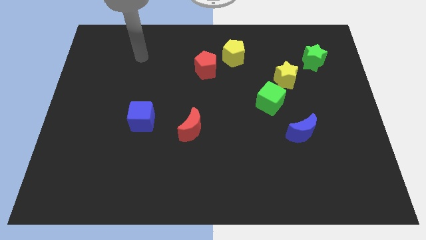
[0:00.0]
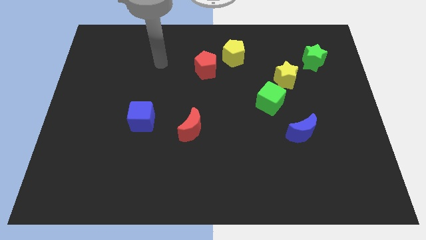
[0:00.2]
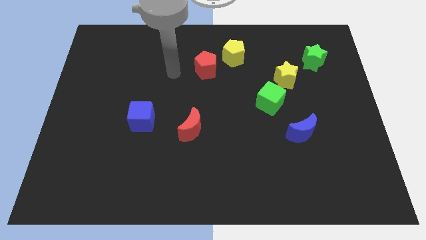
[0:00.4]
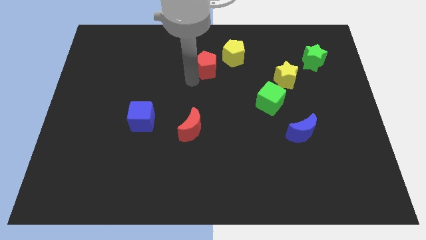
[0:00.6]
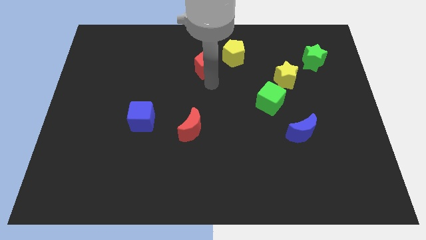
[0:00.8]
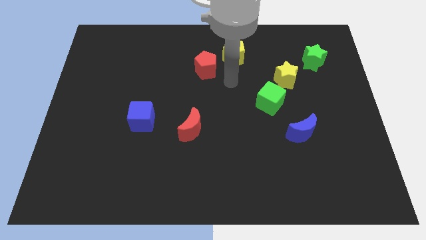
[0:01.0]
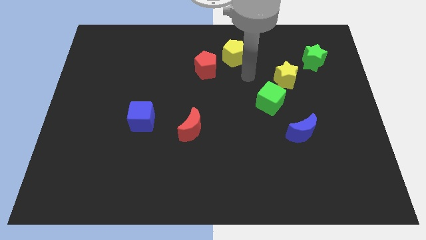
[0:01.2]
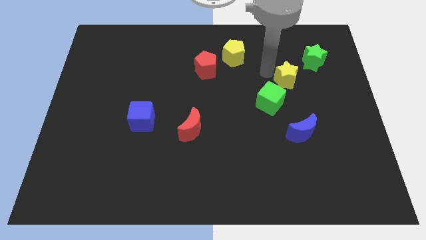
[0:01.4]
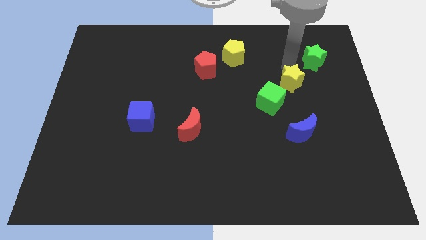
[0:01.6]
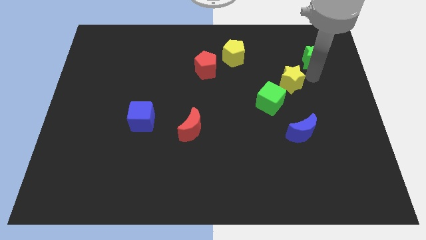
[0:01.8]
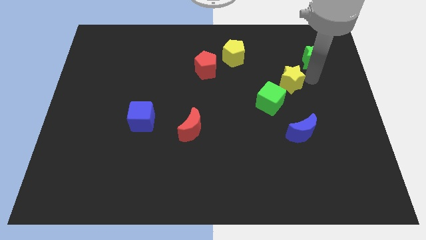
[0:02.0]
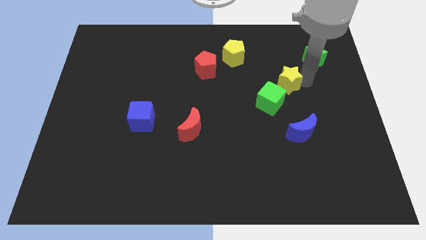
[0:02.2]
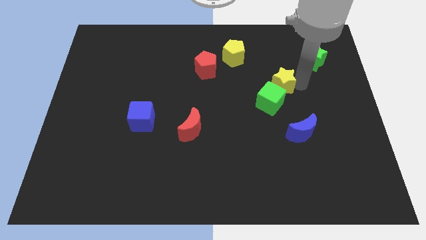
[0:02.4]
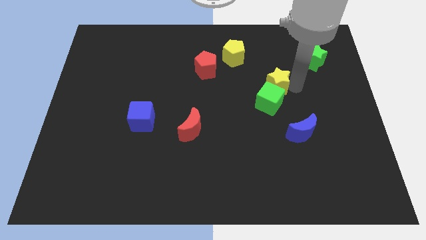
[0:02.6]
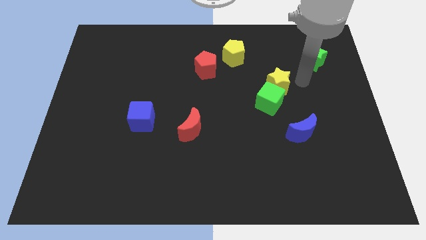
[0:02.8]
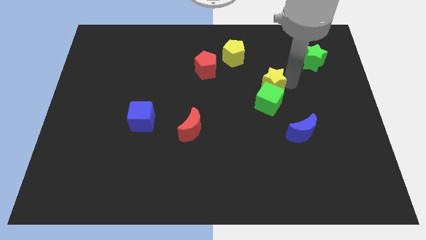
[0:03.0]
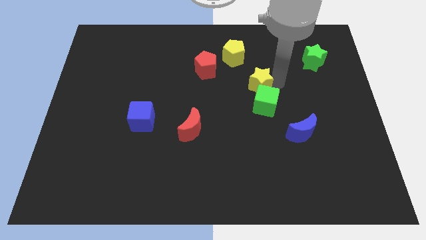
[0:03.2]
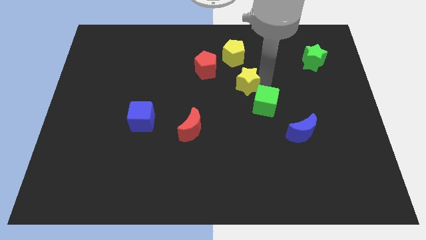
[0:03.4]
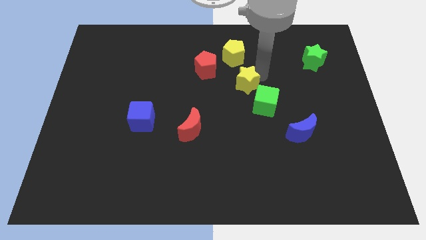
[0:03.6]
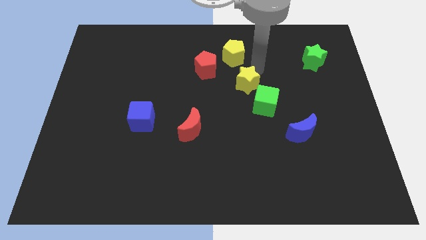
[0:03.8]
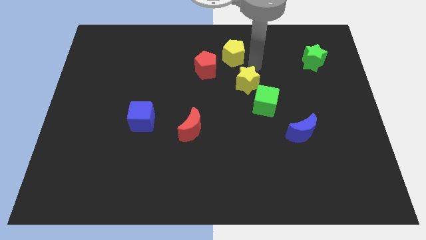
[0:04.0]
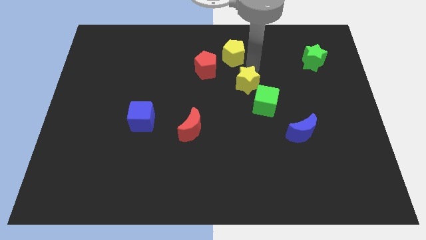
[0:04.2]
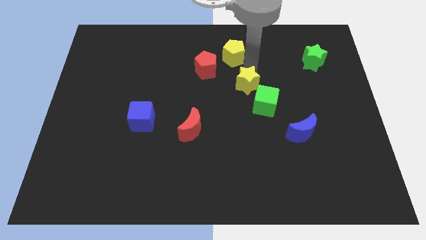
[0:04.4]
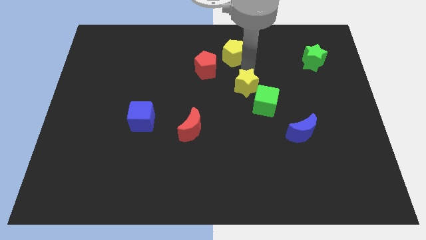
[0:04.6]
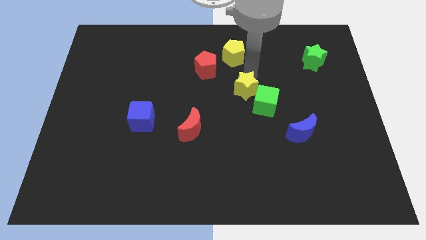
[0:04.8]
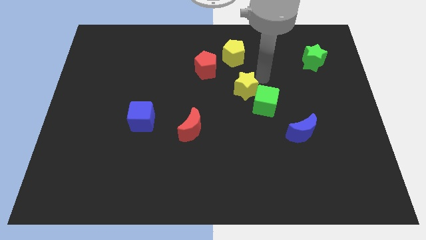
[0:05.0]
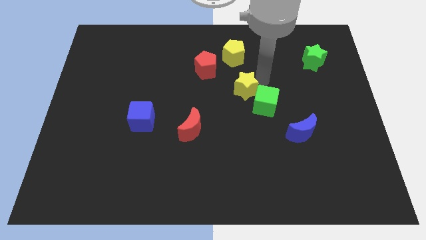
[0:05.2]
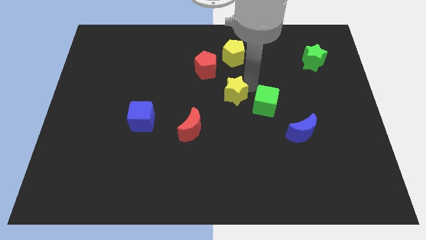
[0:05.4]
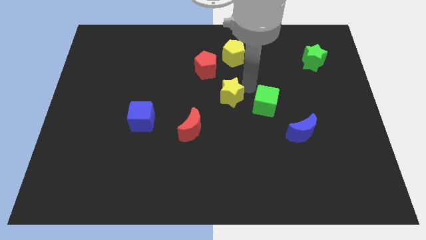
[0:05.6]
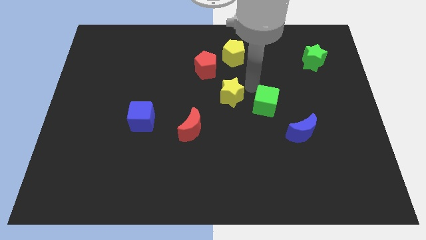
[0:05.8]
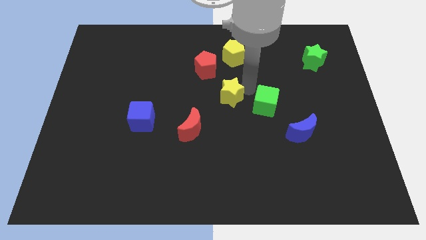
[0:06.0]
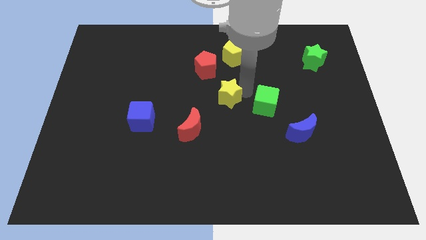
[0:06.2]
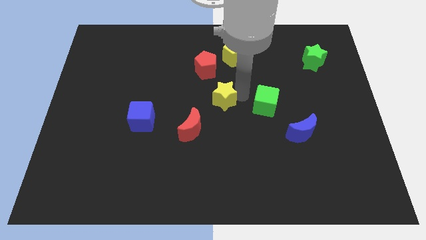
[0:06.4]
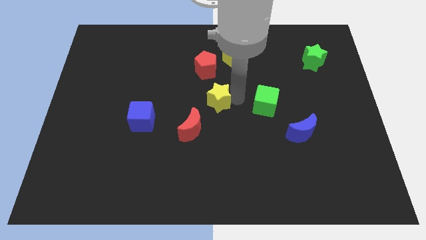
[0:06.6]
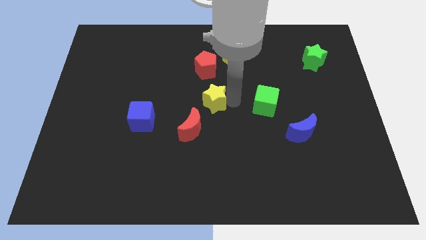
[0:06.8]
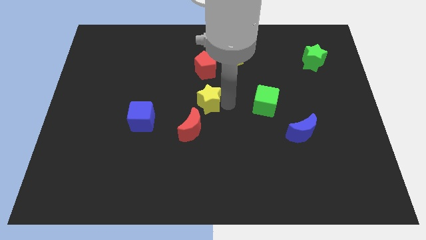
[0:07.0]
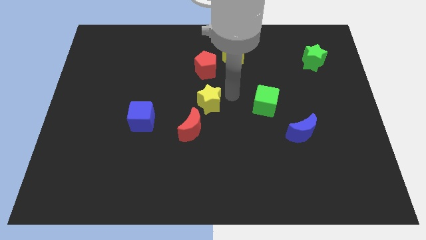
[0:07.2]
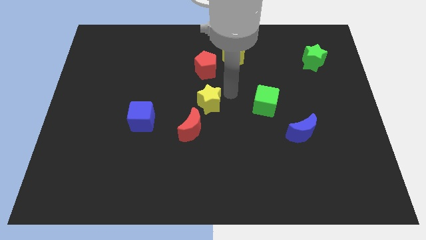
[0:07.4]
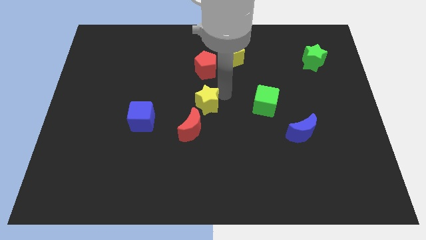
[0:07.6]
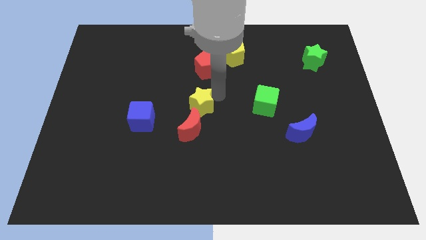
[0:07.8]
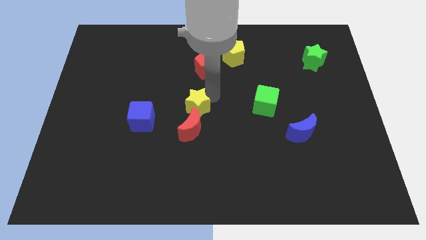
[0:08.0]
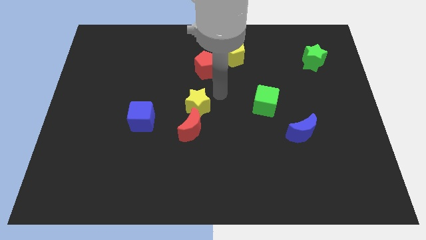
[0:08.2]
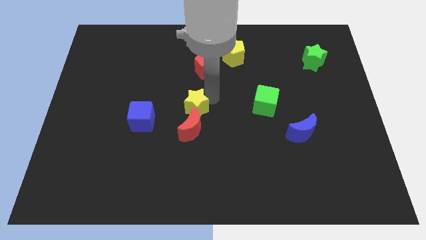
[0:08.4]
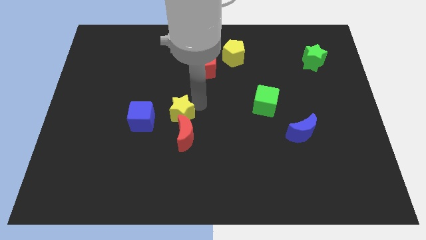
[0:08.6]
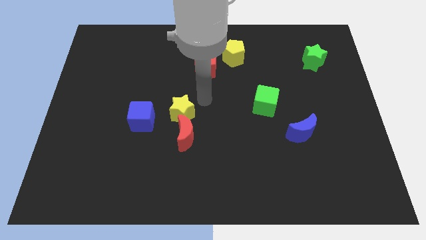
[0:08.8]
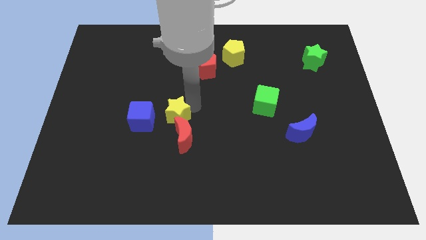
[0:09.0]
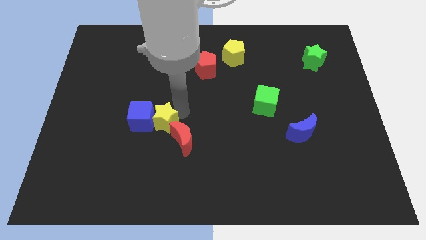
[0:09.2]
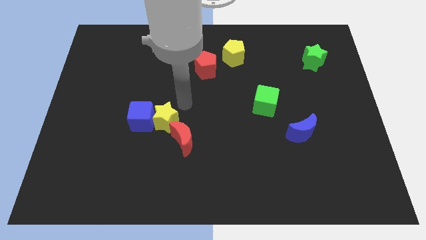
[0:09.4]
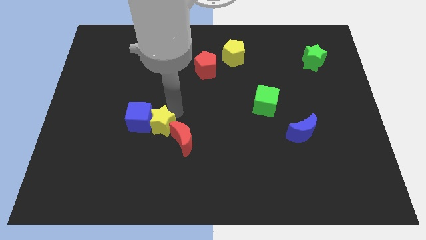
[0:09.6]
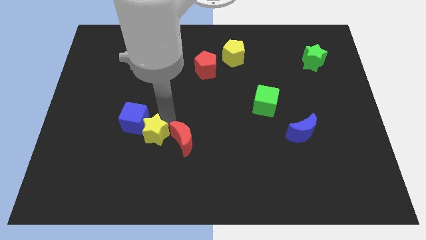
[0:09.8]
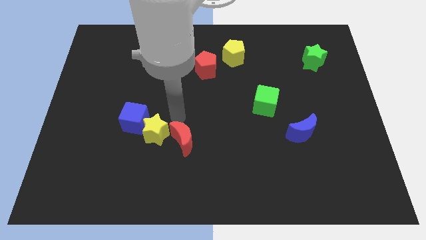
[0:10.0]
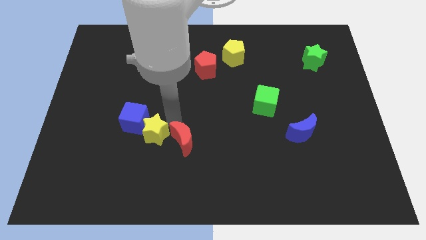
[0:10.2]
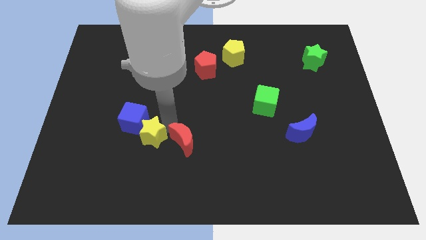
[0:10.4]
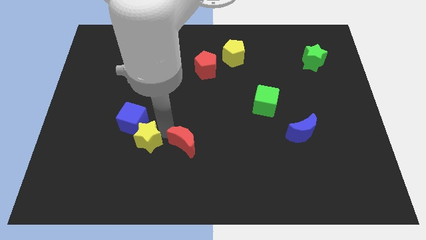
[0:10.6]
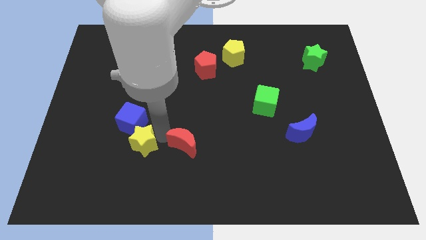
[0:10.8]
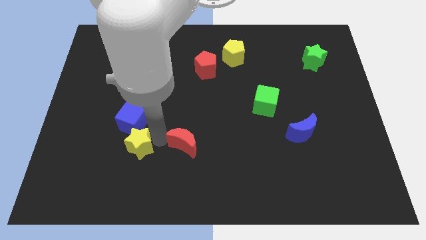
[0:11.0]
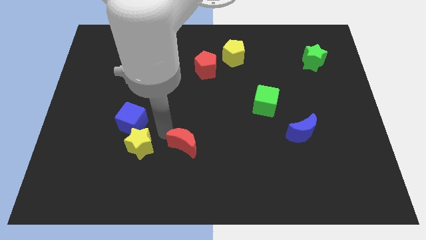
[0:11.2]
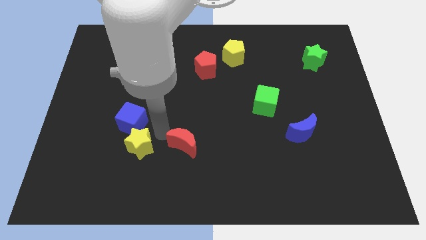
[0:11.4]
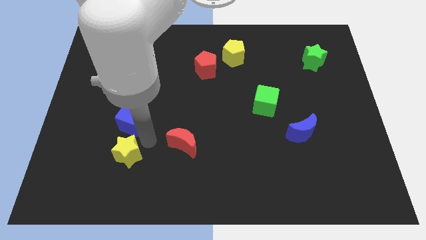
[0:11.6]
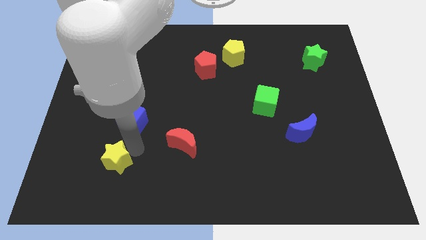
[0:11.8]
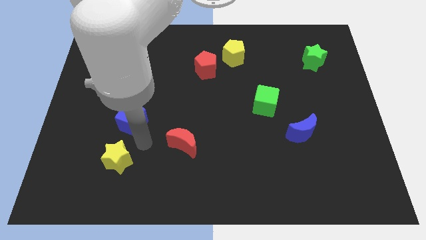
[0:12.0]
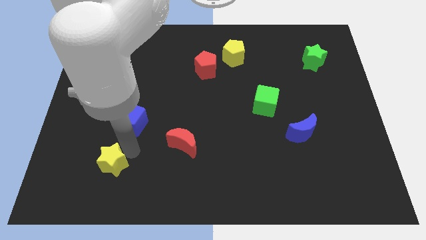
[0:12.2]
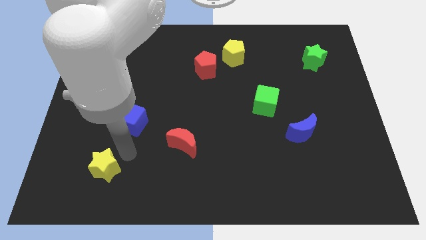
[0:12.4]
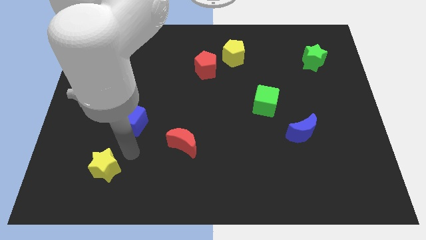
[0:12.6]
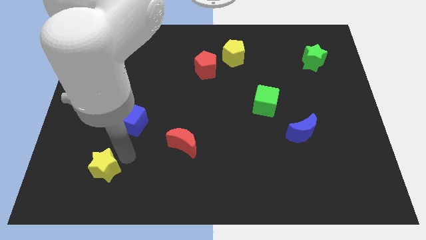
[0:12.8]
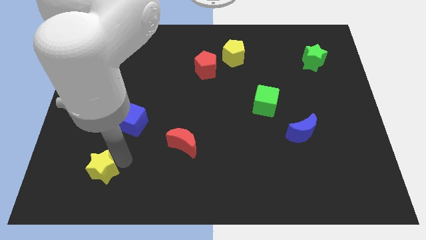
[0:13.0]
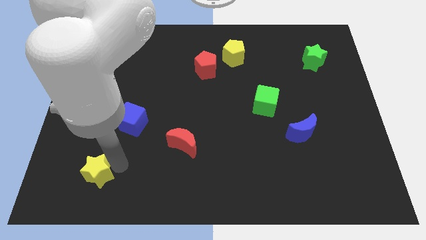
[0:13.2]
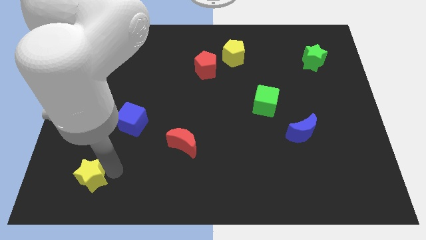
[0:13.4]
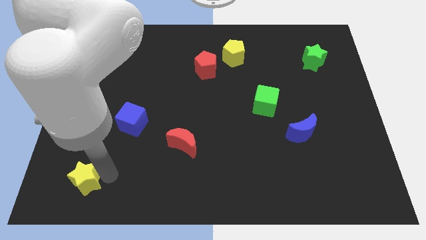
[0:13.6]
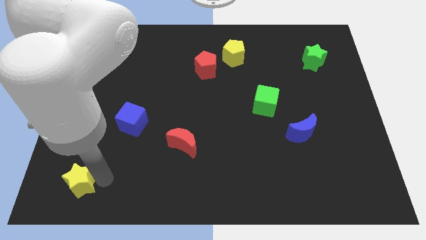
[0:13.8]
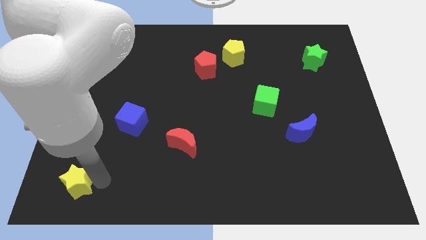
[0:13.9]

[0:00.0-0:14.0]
move the yellow star to the lower left corner
